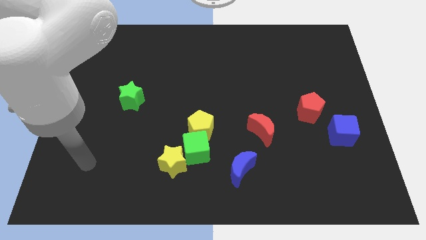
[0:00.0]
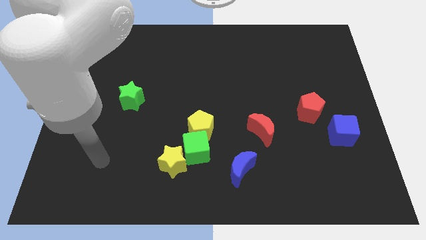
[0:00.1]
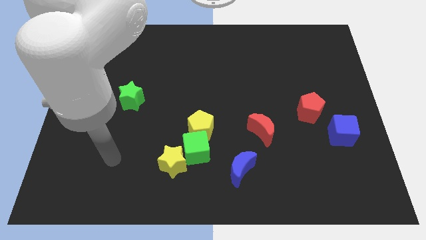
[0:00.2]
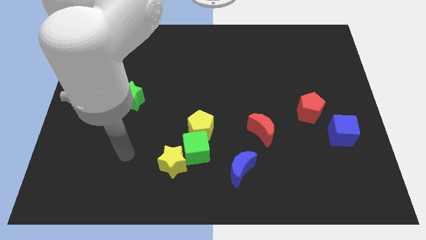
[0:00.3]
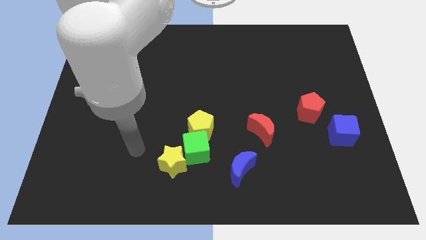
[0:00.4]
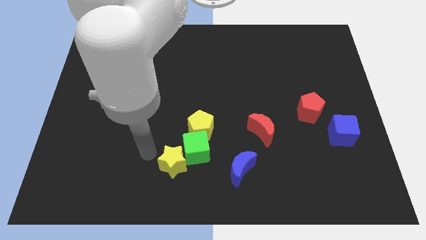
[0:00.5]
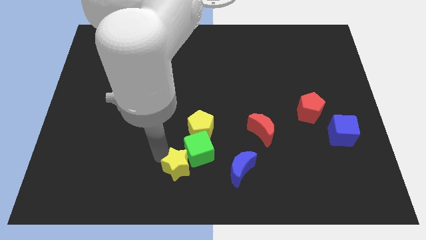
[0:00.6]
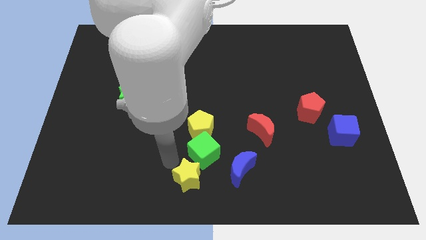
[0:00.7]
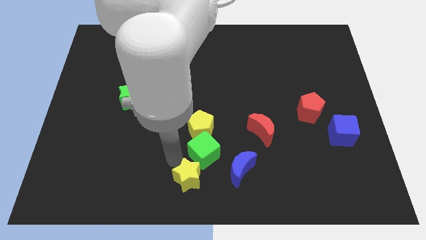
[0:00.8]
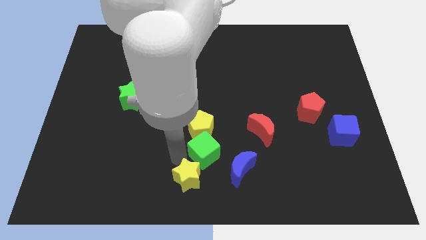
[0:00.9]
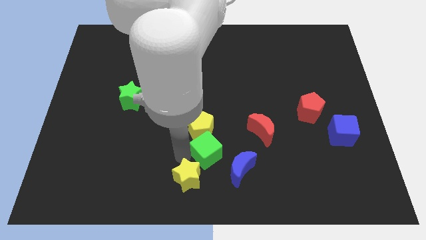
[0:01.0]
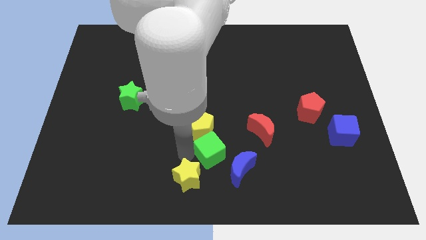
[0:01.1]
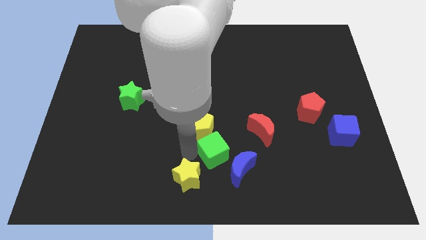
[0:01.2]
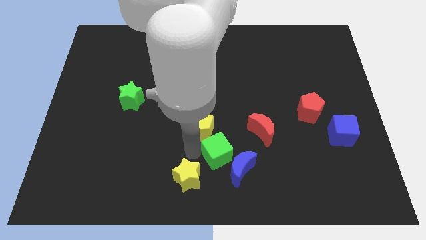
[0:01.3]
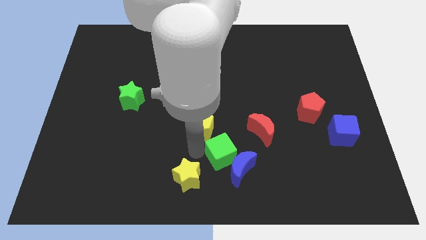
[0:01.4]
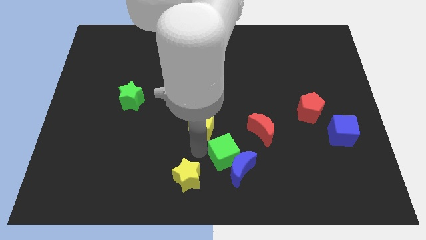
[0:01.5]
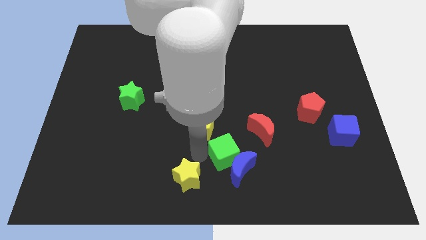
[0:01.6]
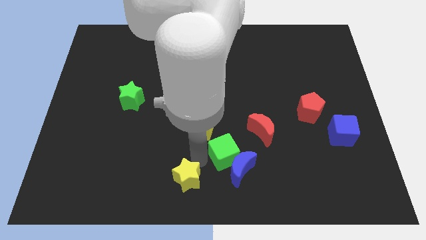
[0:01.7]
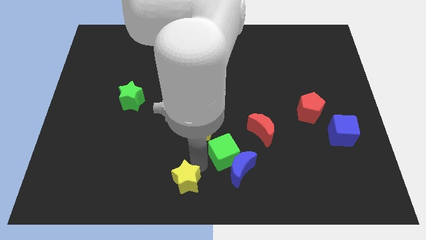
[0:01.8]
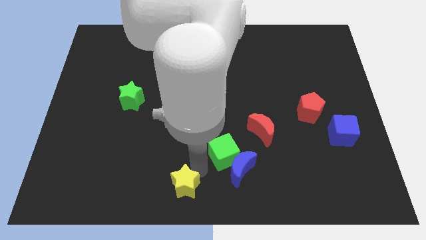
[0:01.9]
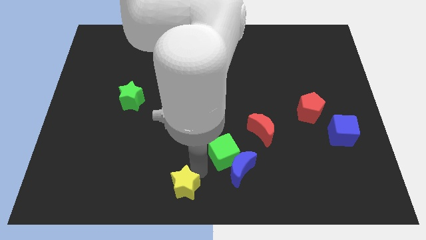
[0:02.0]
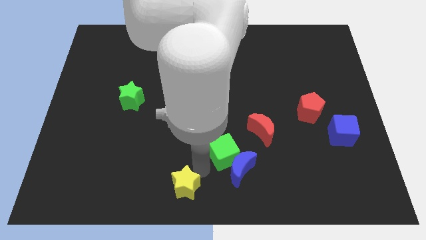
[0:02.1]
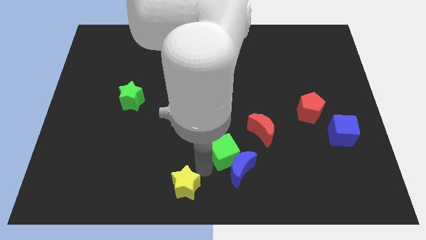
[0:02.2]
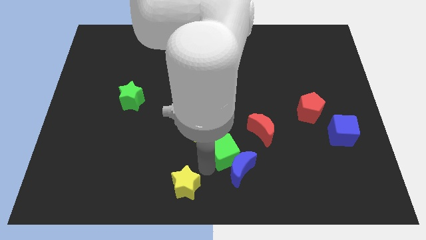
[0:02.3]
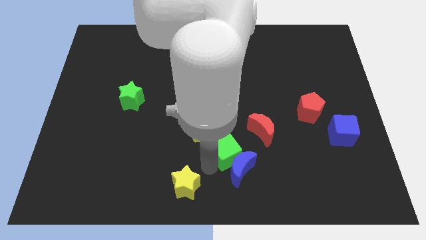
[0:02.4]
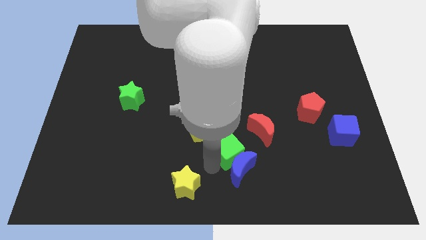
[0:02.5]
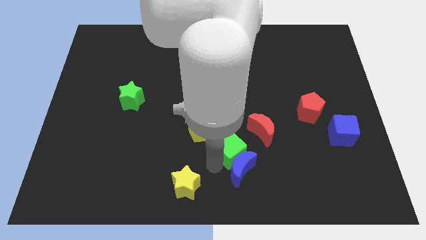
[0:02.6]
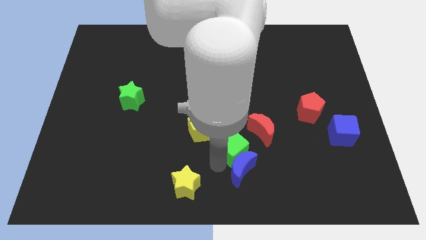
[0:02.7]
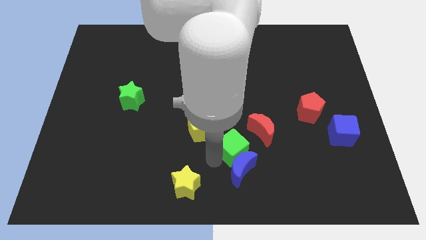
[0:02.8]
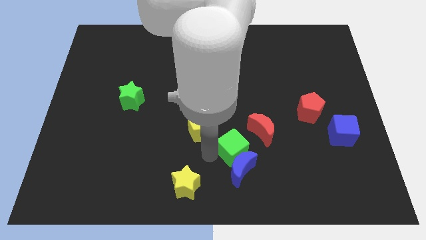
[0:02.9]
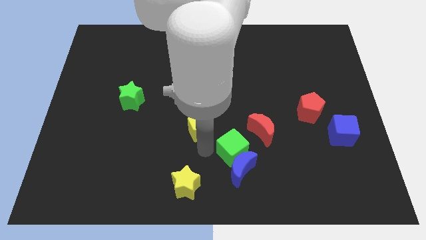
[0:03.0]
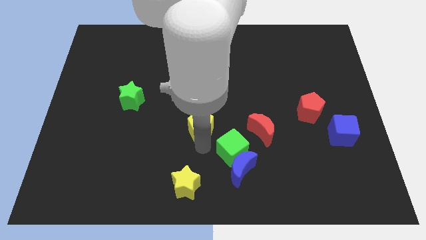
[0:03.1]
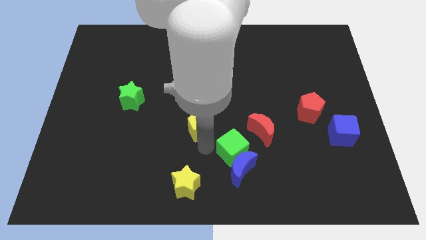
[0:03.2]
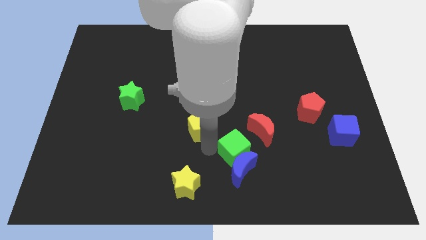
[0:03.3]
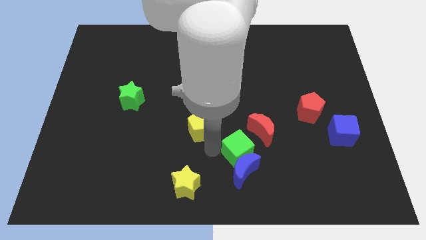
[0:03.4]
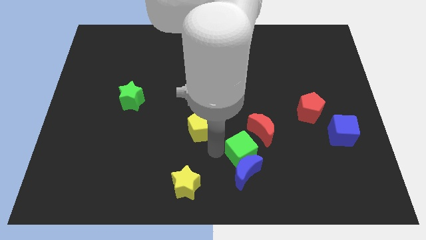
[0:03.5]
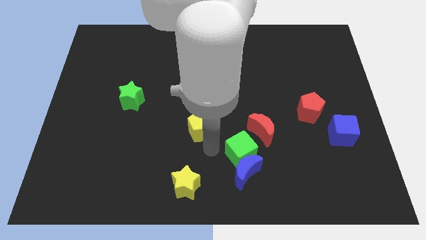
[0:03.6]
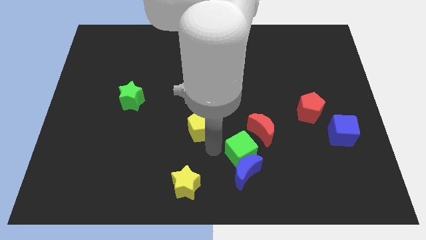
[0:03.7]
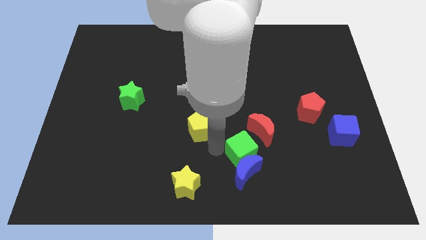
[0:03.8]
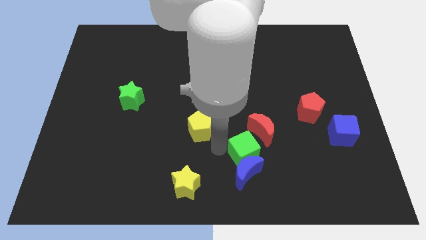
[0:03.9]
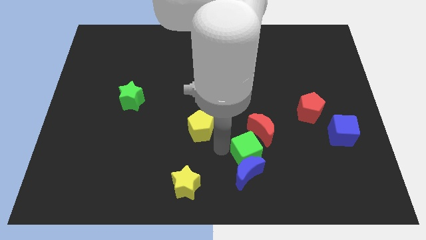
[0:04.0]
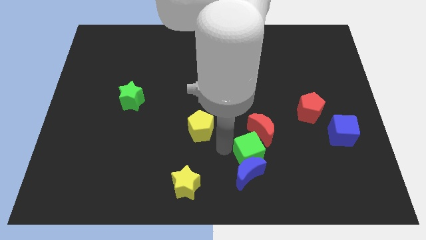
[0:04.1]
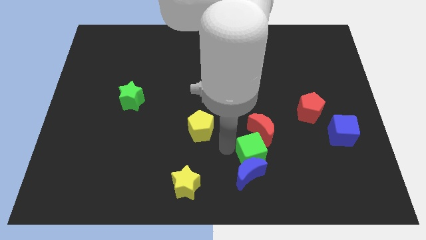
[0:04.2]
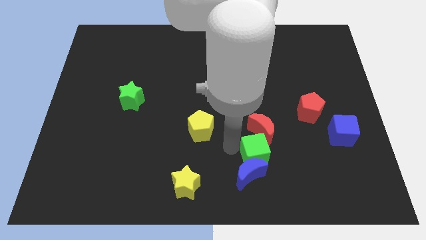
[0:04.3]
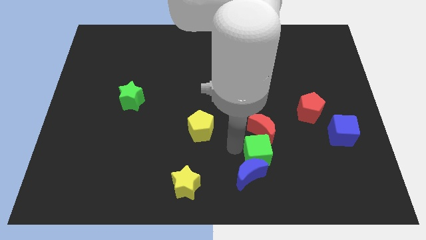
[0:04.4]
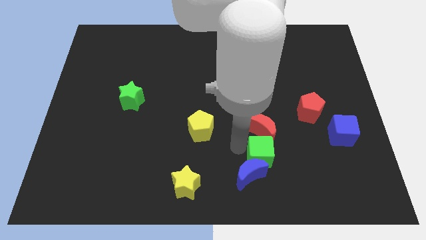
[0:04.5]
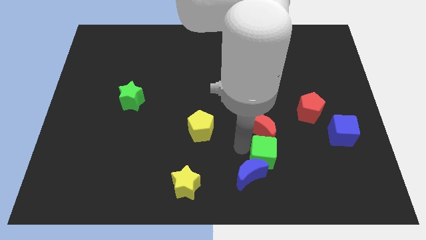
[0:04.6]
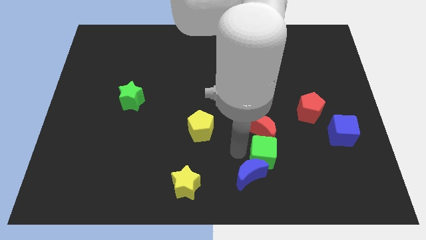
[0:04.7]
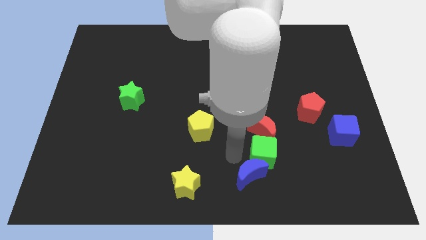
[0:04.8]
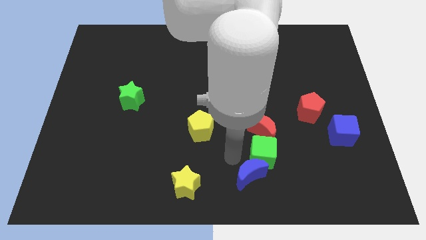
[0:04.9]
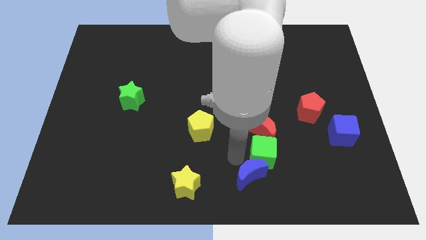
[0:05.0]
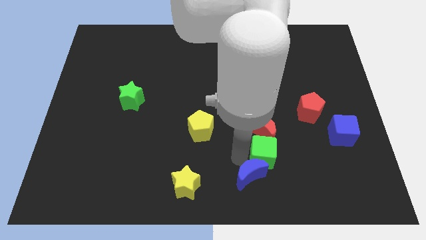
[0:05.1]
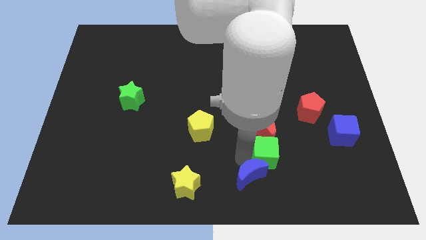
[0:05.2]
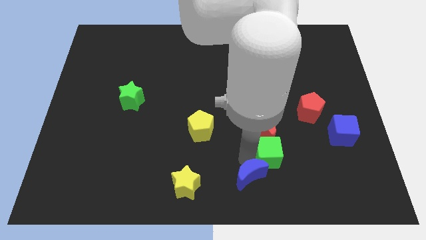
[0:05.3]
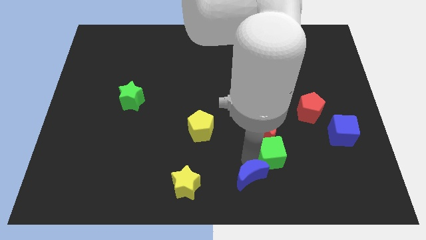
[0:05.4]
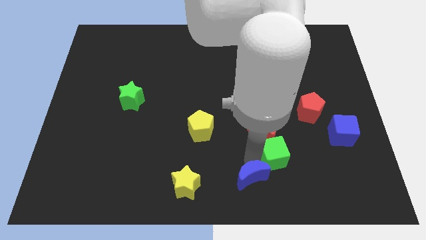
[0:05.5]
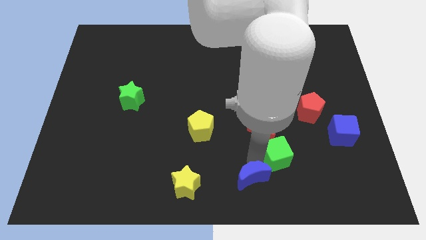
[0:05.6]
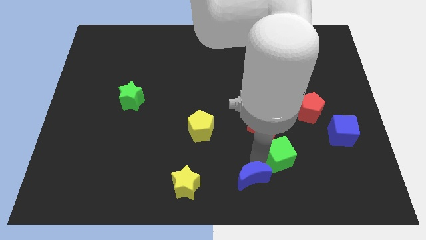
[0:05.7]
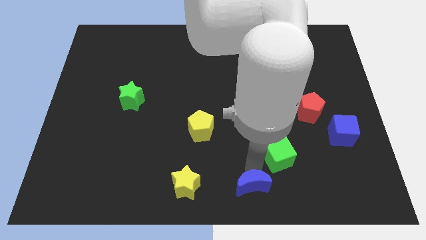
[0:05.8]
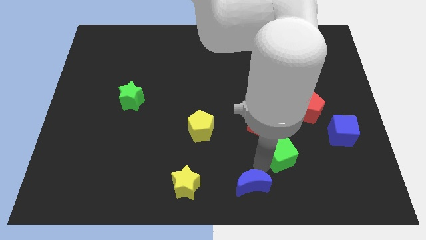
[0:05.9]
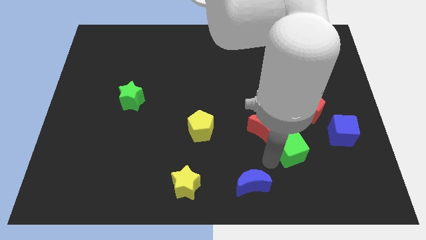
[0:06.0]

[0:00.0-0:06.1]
slide the green cube to the right

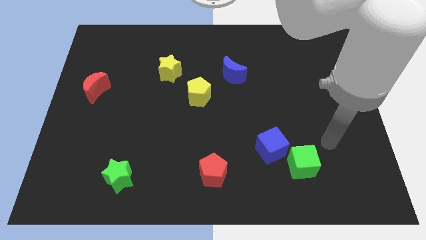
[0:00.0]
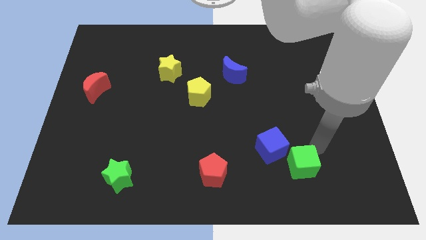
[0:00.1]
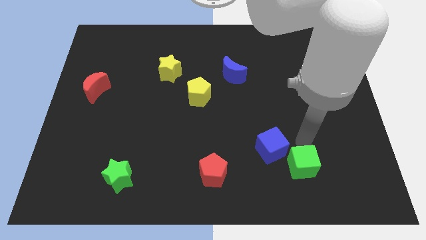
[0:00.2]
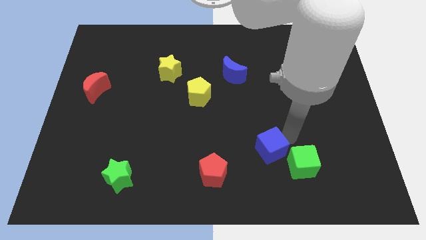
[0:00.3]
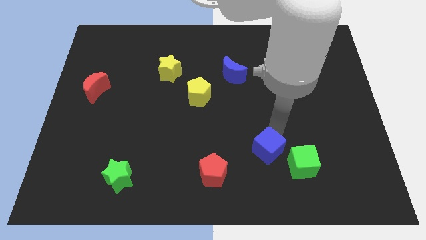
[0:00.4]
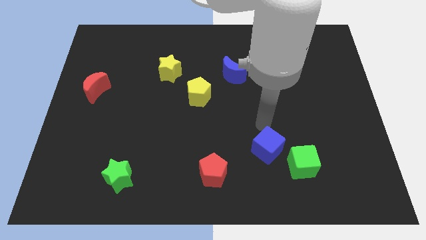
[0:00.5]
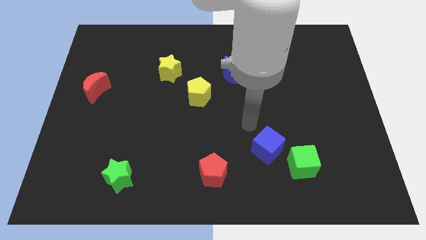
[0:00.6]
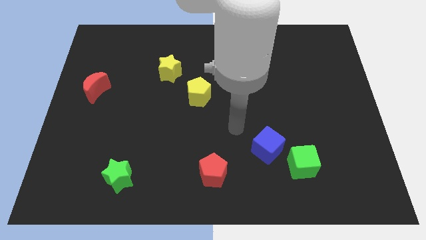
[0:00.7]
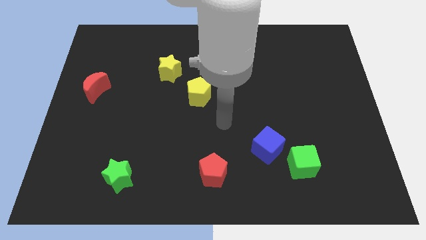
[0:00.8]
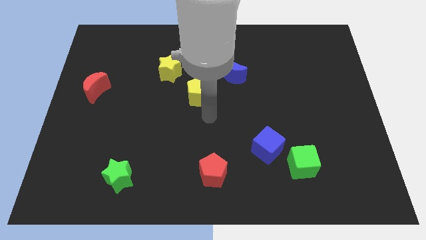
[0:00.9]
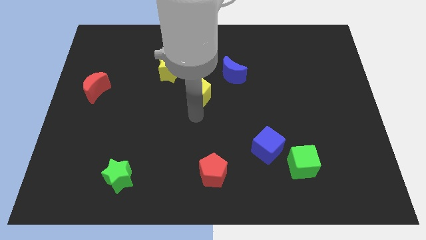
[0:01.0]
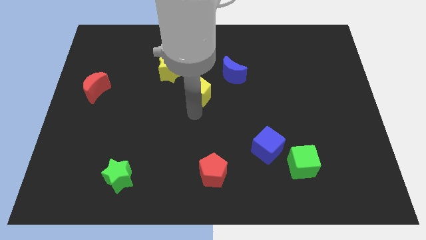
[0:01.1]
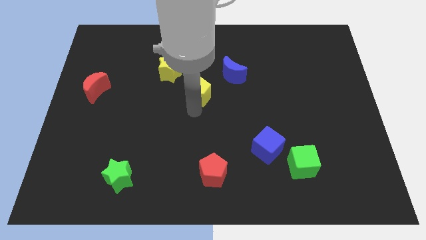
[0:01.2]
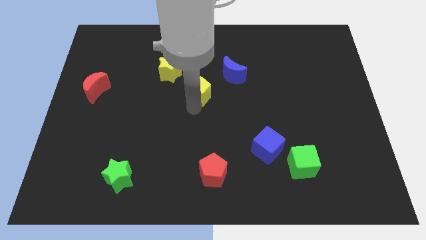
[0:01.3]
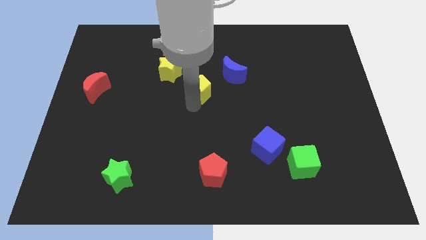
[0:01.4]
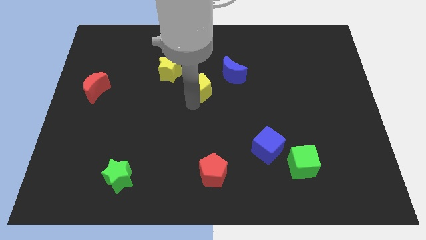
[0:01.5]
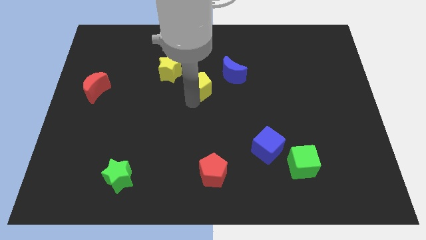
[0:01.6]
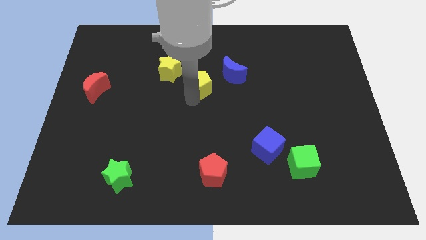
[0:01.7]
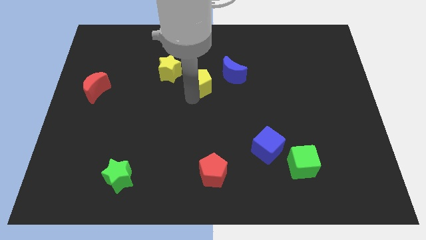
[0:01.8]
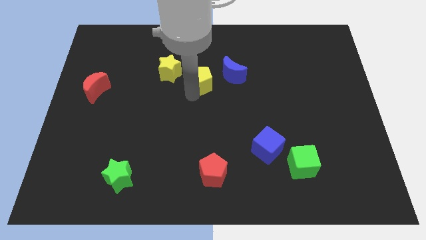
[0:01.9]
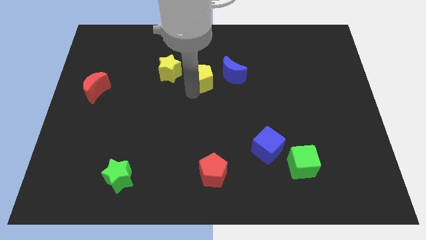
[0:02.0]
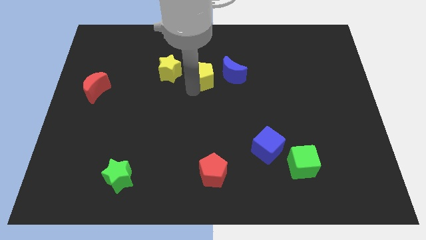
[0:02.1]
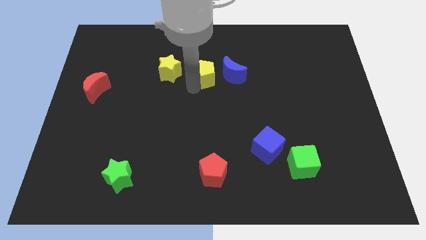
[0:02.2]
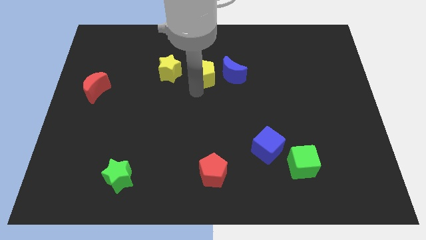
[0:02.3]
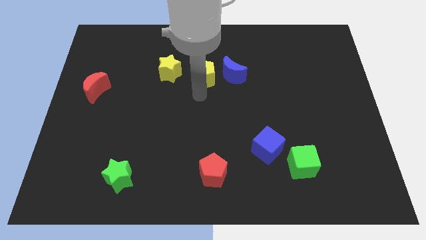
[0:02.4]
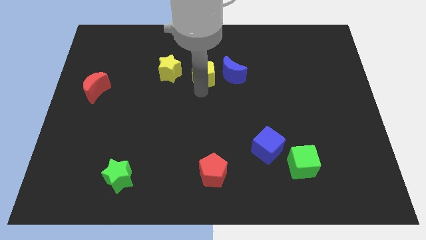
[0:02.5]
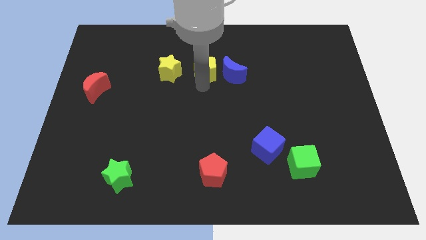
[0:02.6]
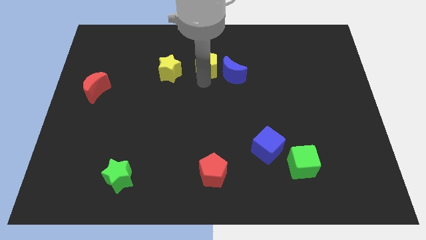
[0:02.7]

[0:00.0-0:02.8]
slightly push the yellow pentagon diagonally upwards and right
